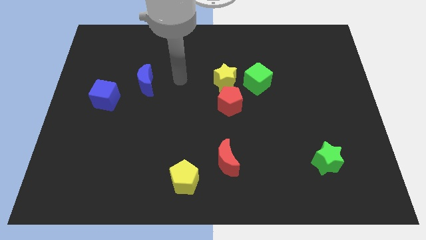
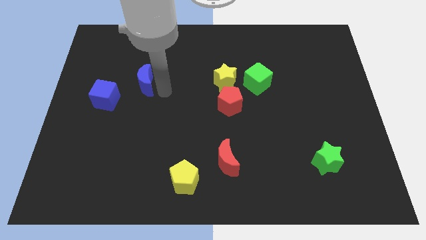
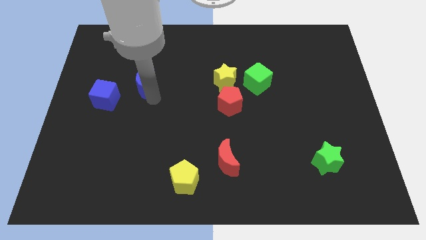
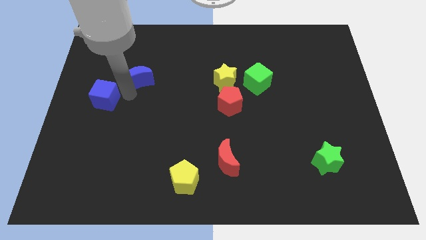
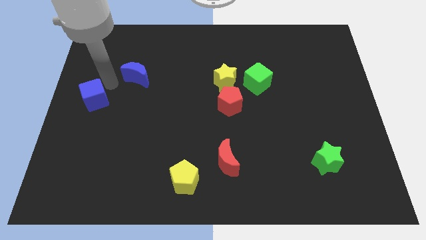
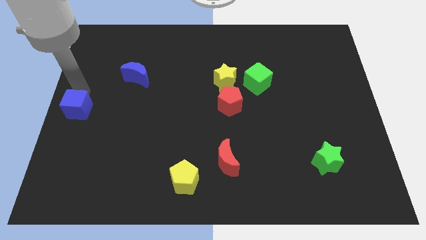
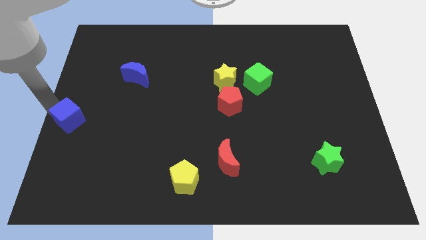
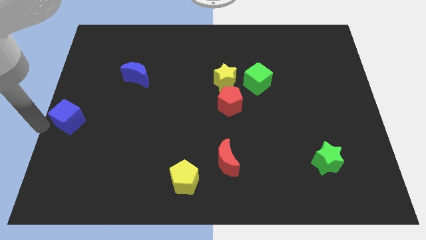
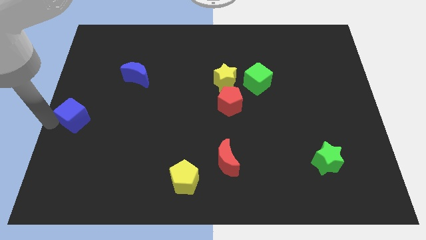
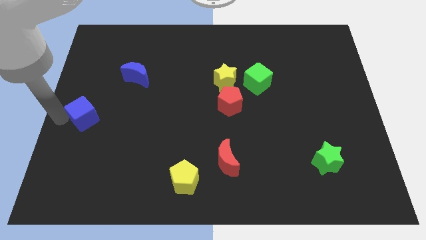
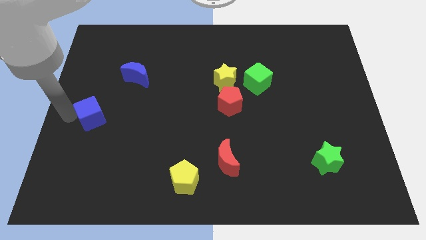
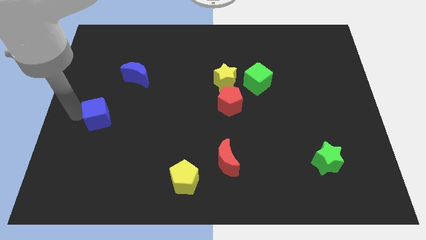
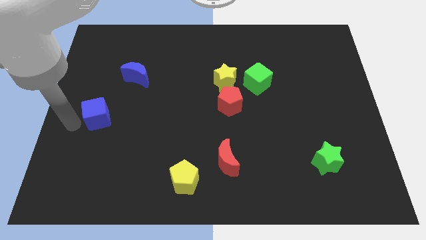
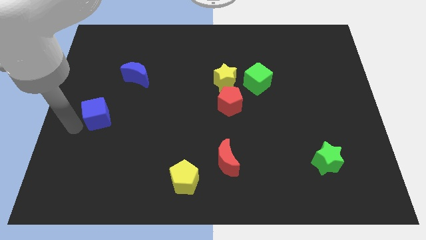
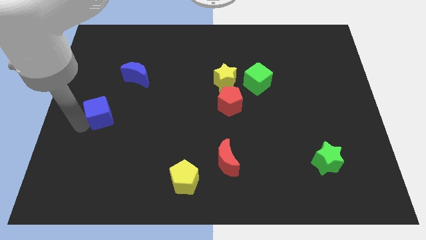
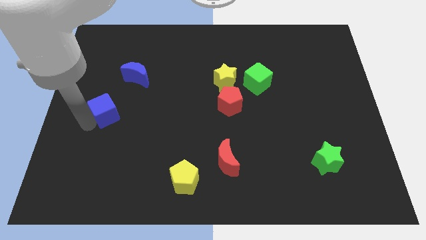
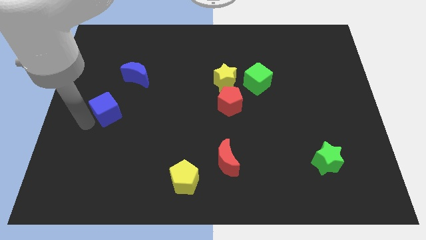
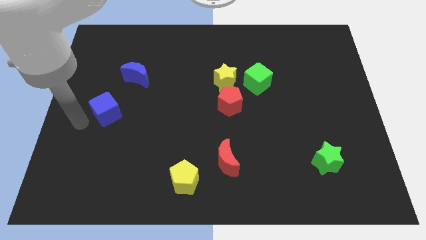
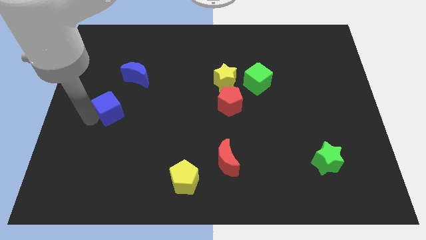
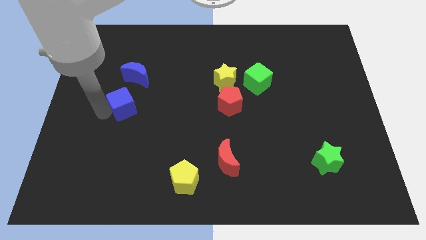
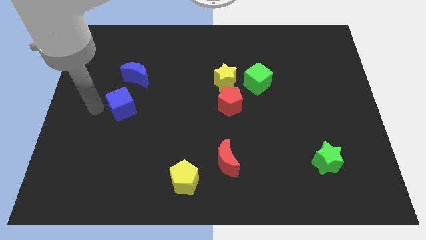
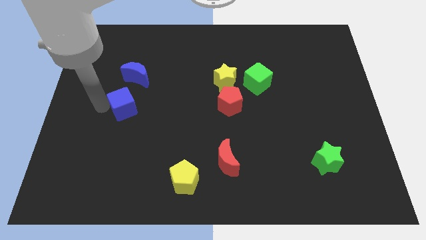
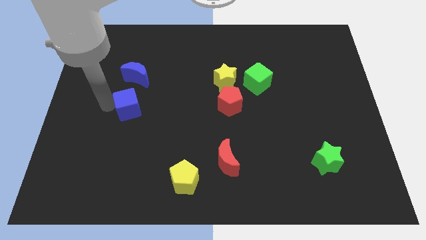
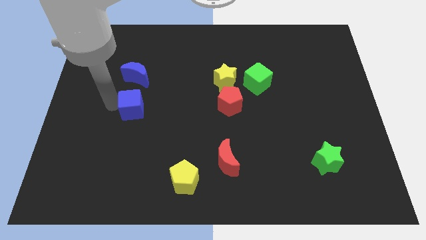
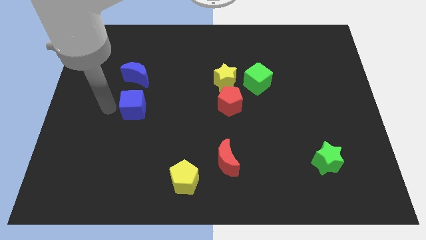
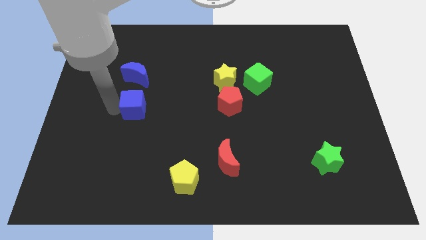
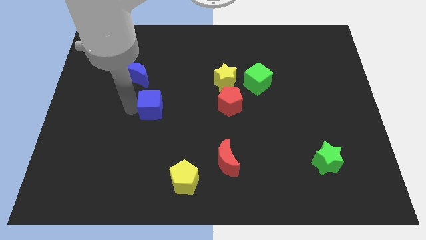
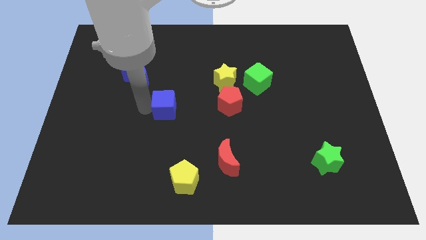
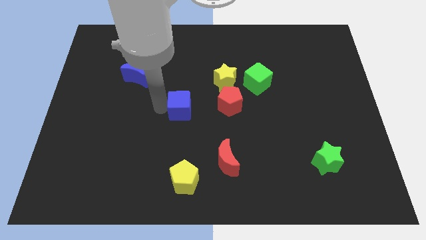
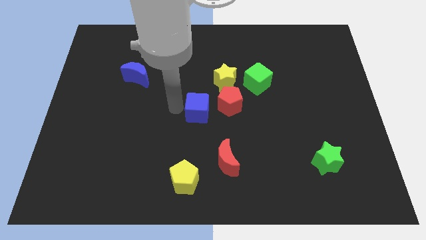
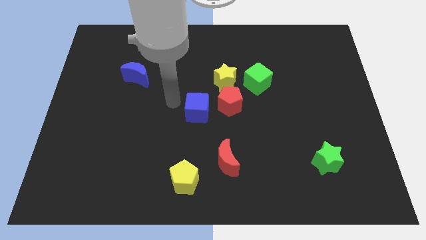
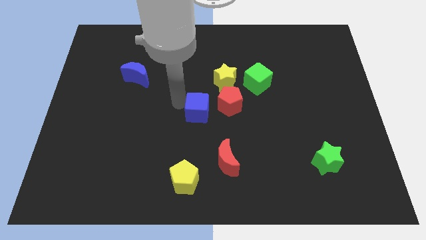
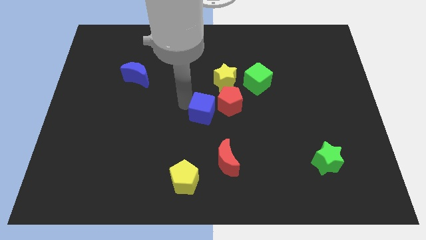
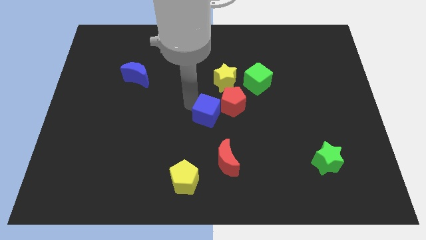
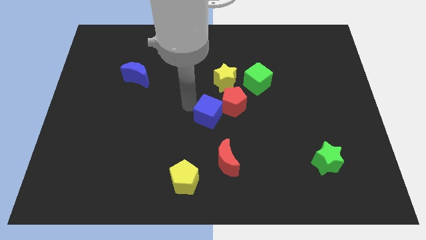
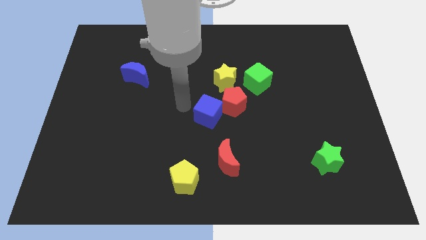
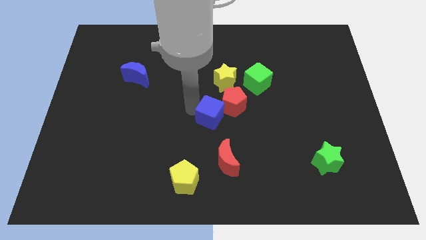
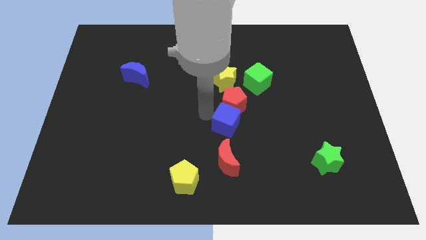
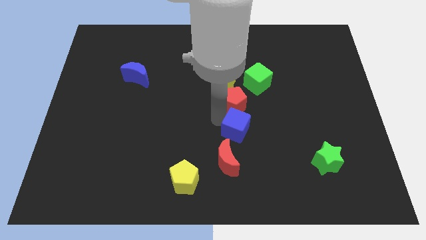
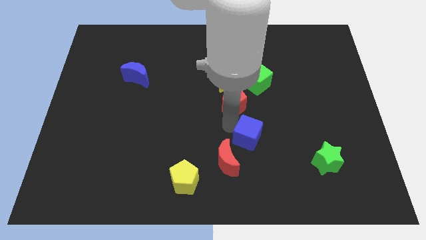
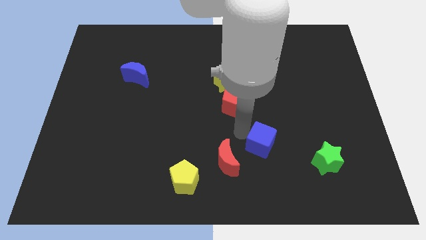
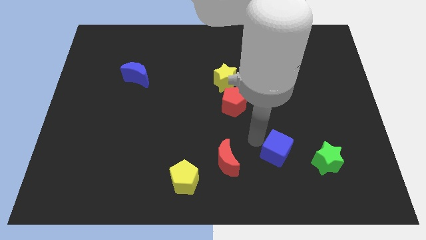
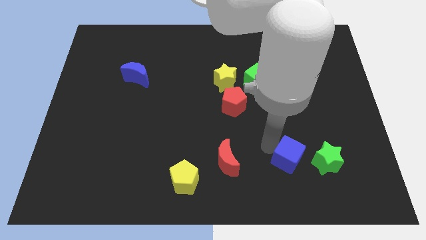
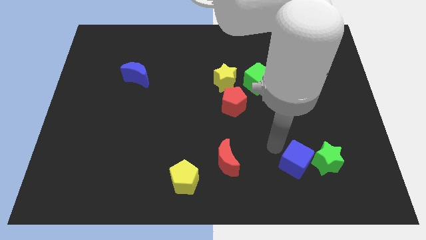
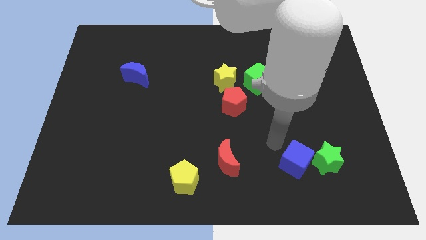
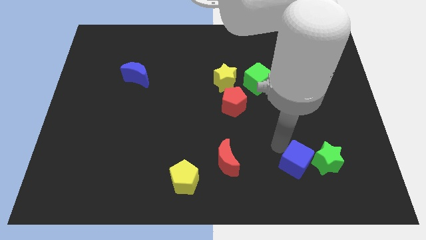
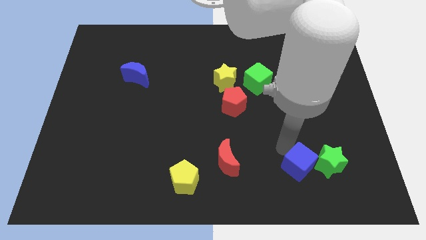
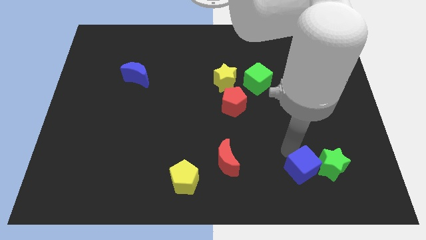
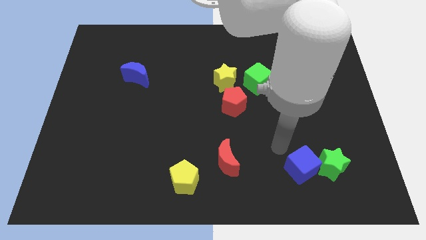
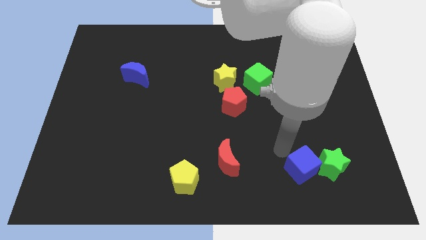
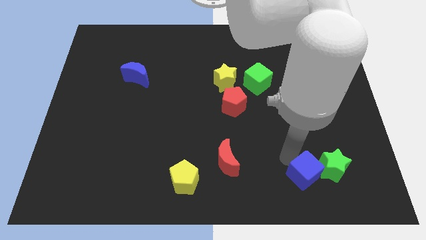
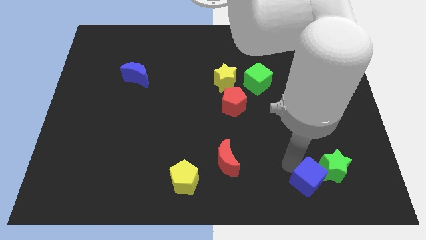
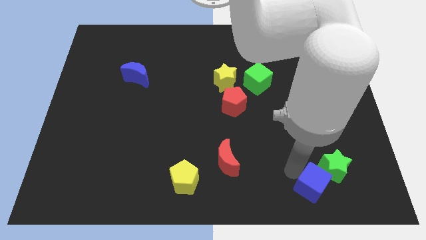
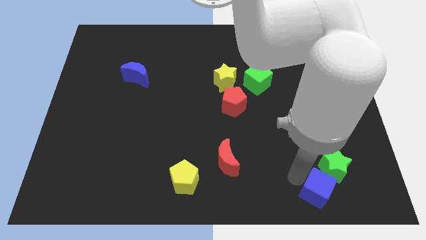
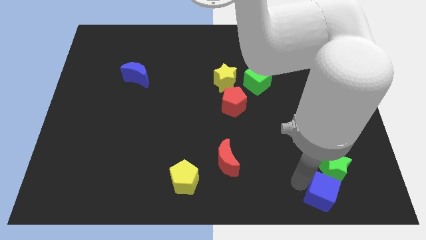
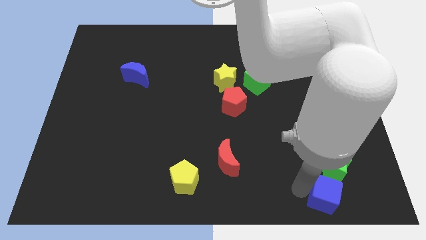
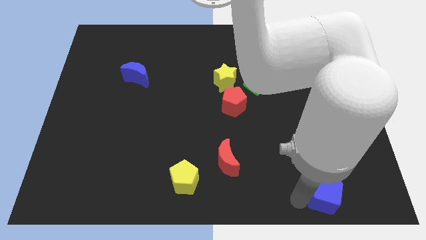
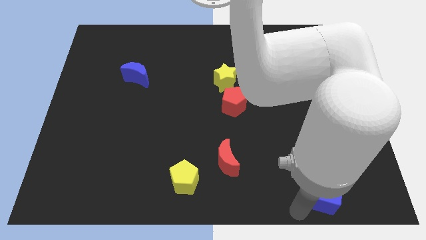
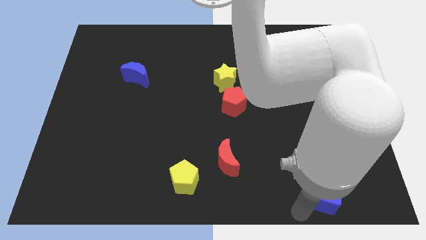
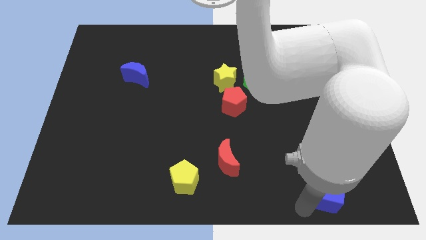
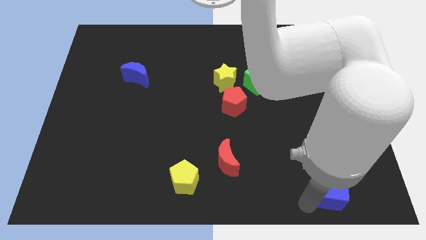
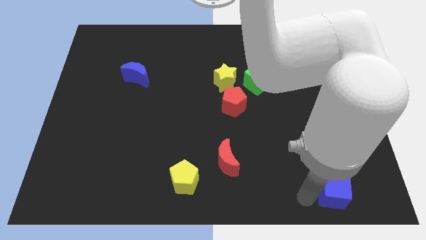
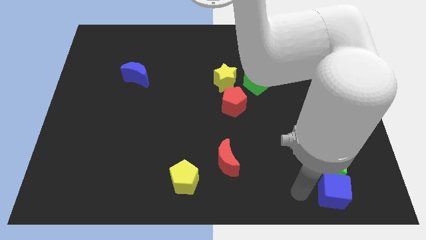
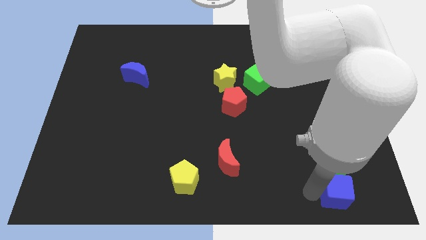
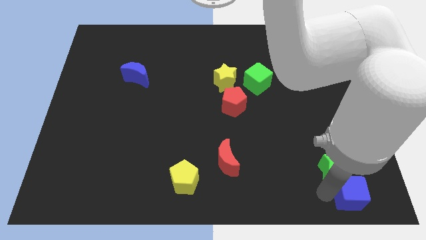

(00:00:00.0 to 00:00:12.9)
put the blue cube to the bottom right of the board
